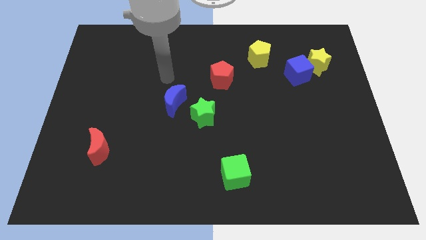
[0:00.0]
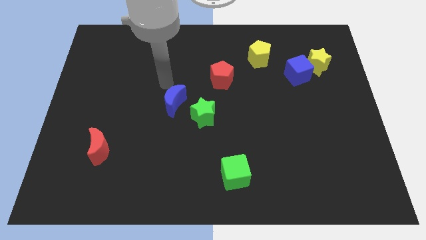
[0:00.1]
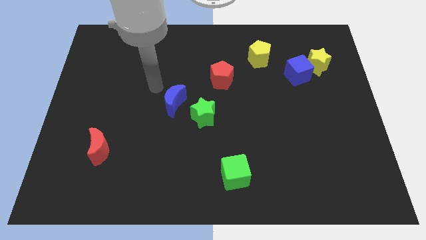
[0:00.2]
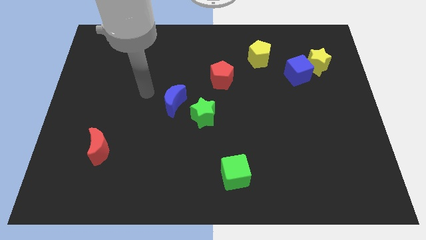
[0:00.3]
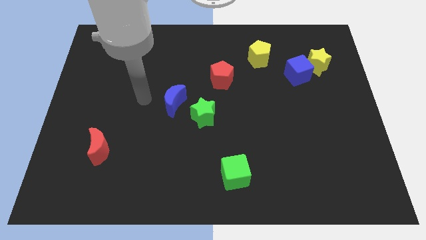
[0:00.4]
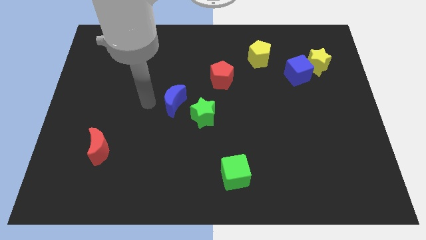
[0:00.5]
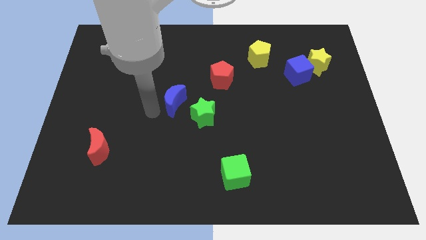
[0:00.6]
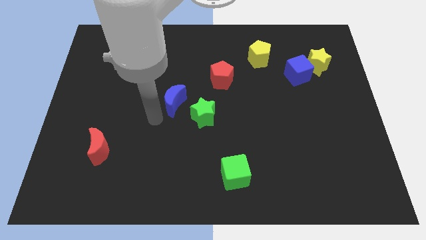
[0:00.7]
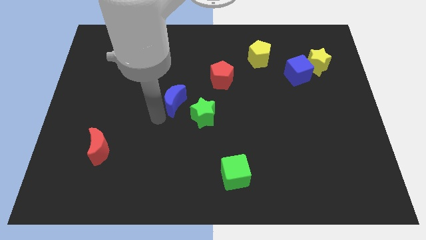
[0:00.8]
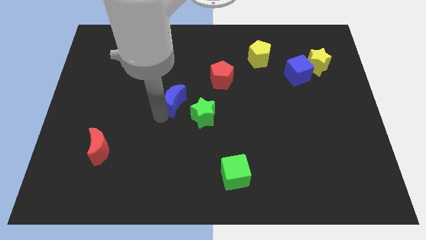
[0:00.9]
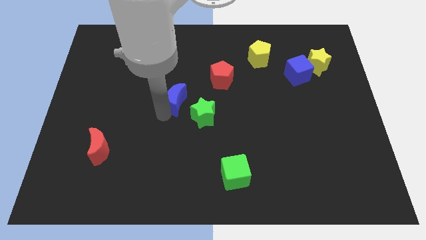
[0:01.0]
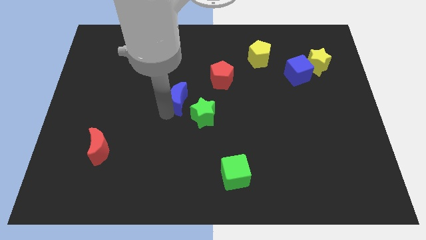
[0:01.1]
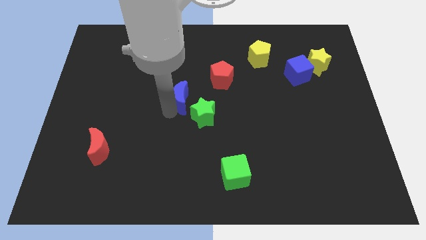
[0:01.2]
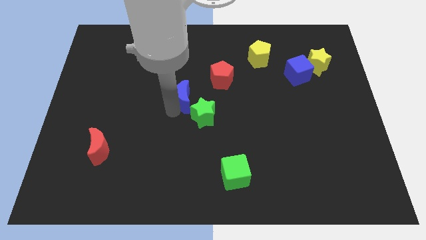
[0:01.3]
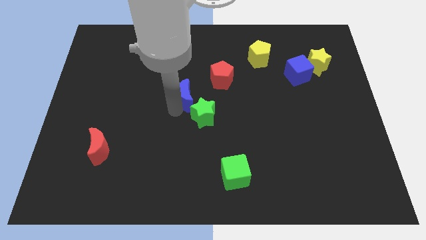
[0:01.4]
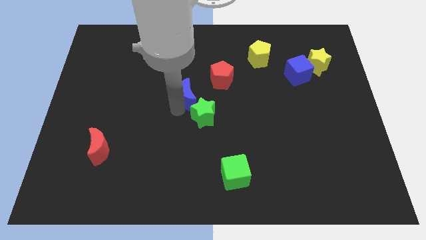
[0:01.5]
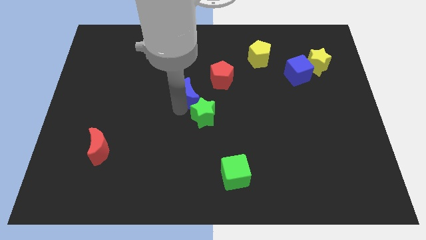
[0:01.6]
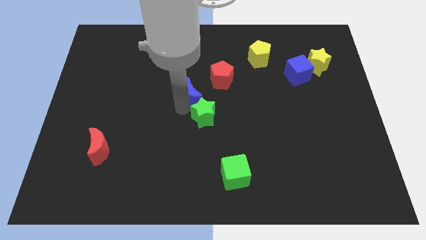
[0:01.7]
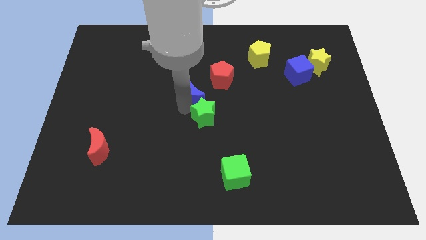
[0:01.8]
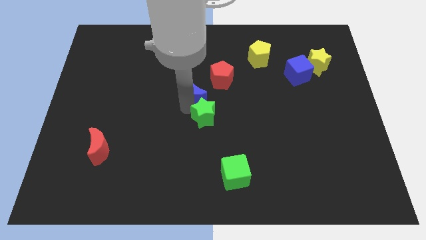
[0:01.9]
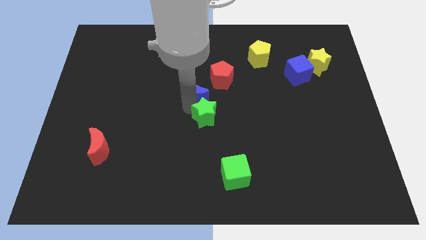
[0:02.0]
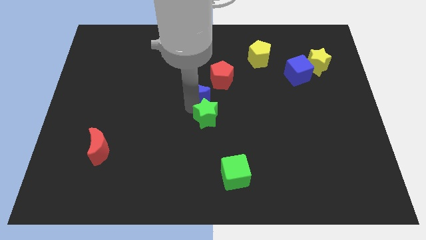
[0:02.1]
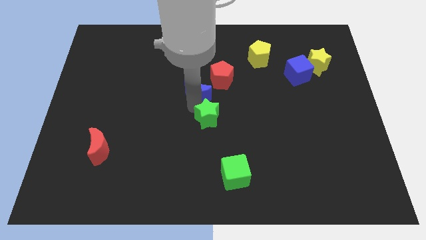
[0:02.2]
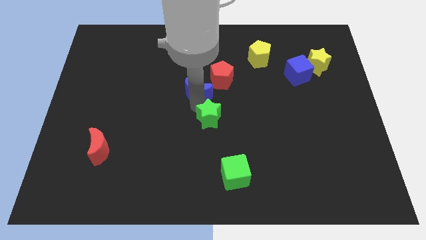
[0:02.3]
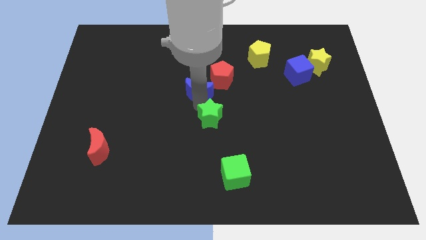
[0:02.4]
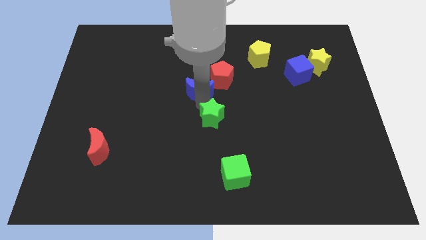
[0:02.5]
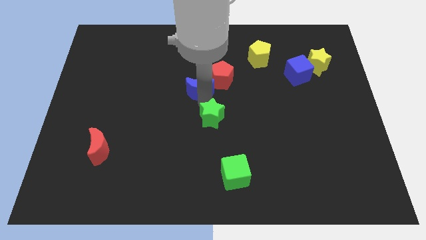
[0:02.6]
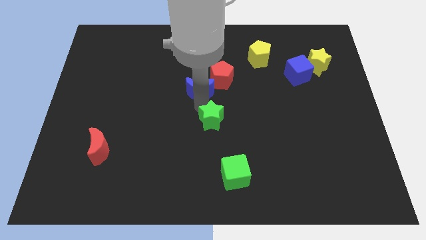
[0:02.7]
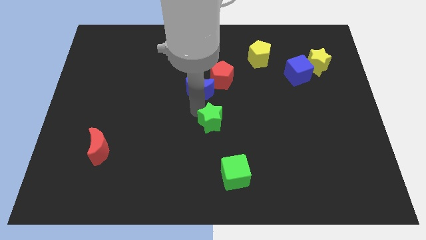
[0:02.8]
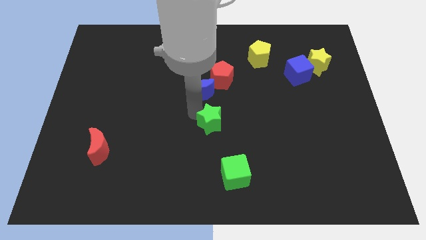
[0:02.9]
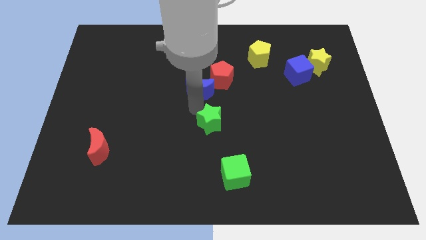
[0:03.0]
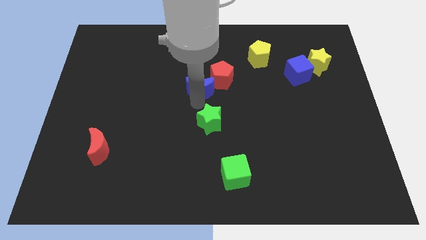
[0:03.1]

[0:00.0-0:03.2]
push the blue moon up and then to the right a little

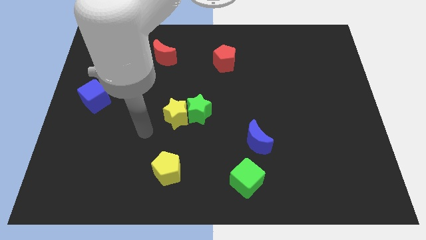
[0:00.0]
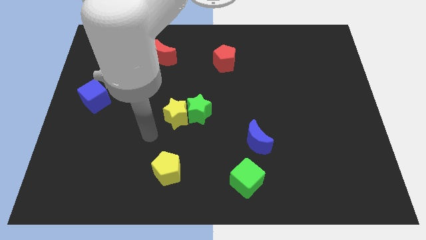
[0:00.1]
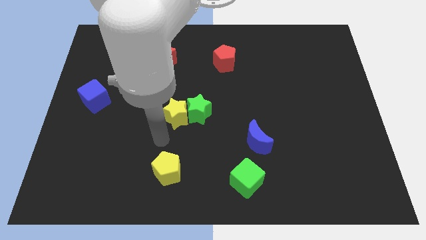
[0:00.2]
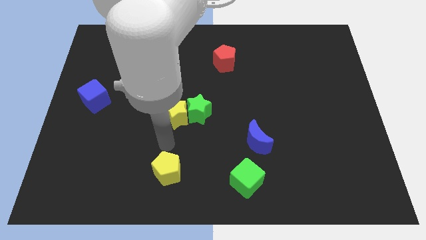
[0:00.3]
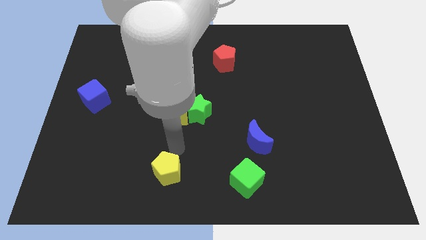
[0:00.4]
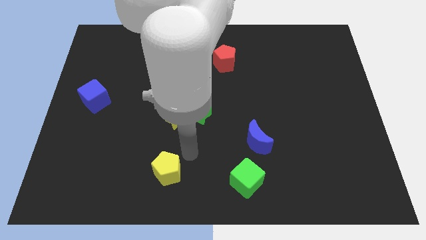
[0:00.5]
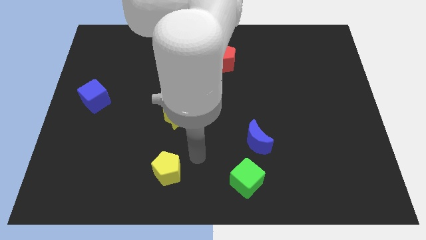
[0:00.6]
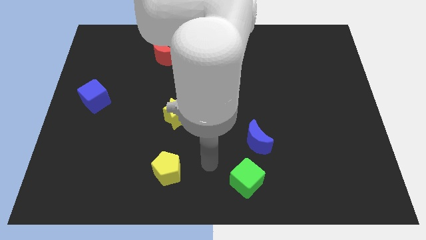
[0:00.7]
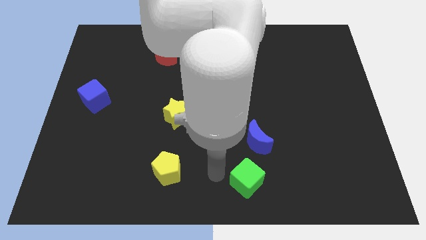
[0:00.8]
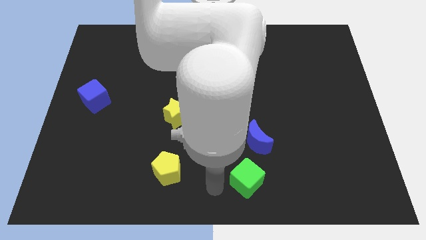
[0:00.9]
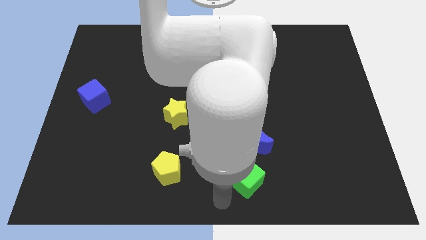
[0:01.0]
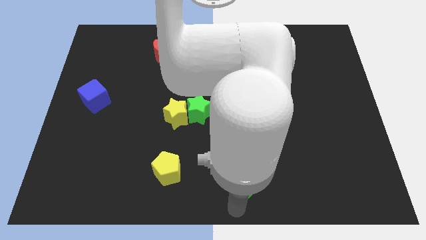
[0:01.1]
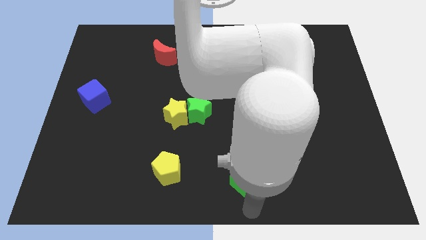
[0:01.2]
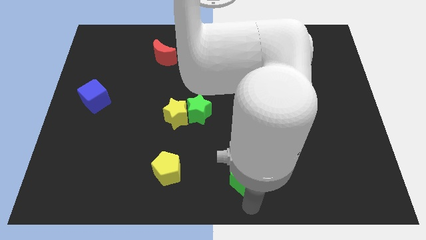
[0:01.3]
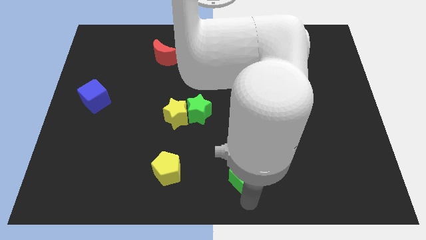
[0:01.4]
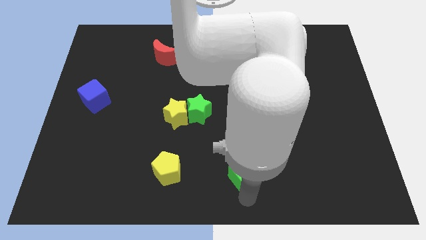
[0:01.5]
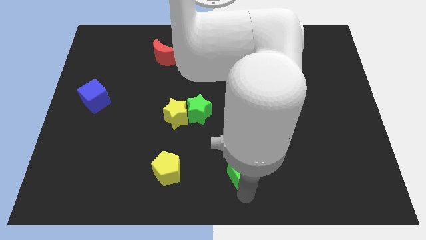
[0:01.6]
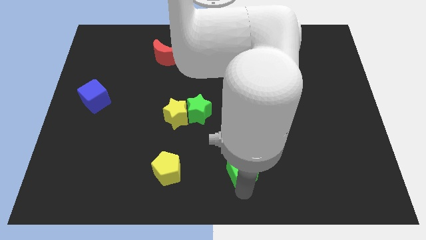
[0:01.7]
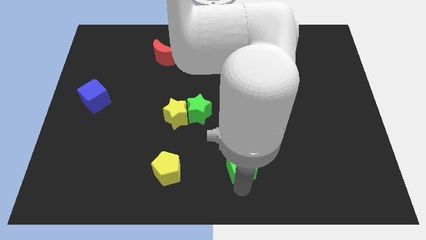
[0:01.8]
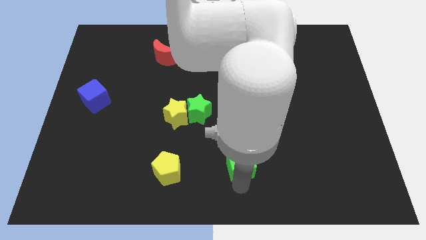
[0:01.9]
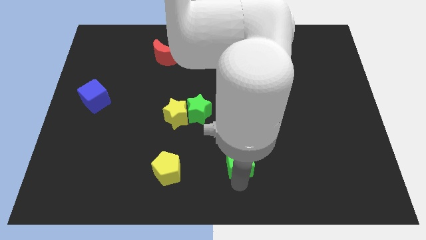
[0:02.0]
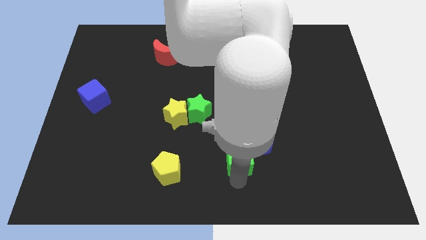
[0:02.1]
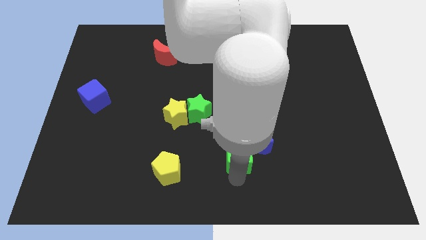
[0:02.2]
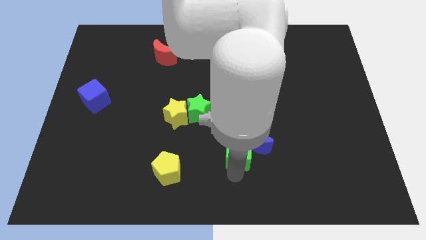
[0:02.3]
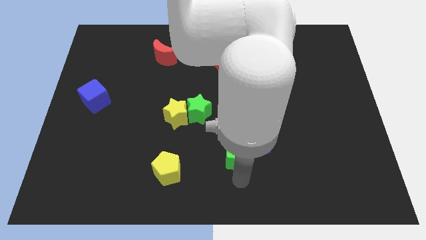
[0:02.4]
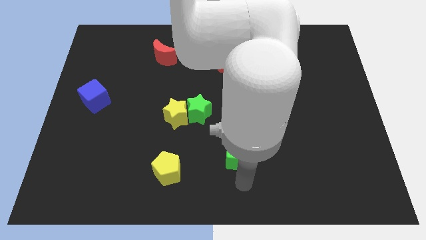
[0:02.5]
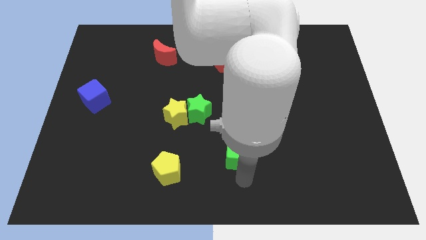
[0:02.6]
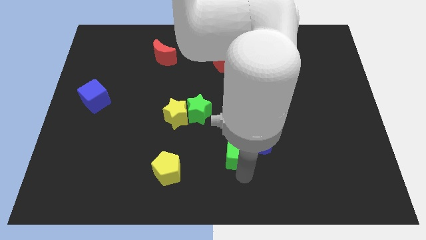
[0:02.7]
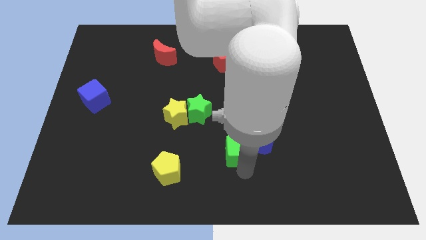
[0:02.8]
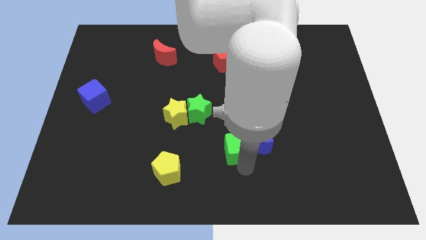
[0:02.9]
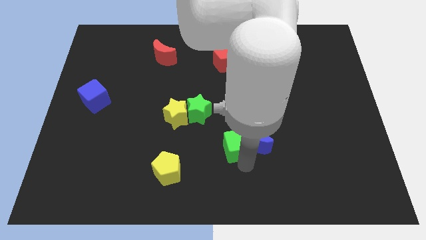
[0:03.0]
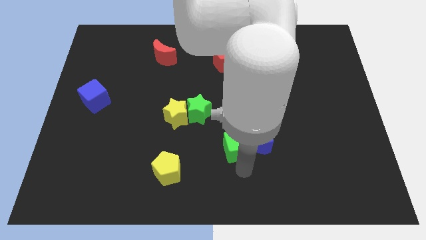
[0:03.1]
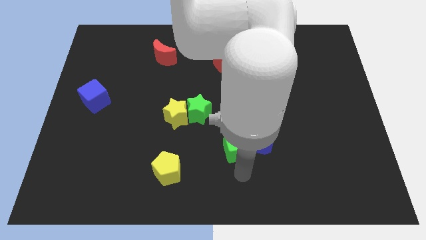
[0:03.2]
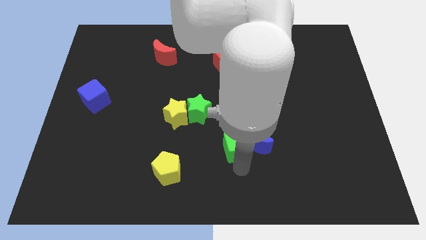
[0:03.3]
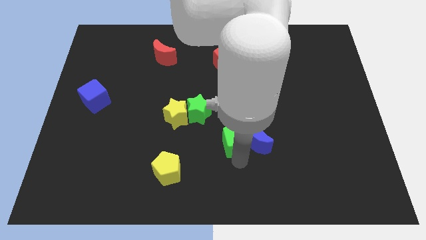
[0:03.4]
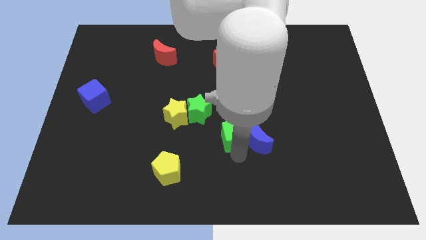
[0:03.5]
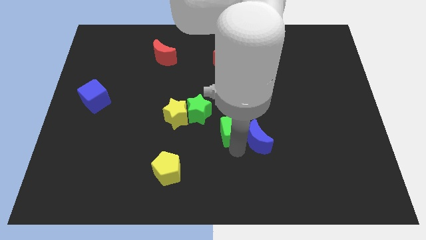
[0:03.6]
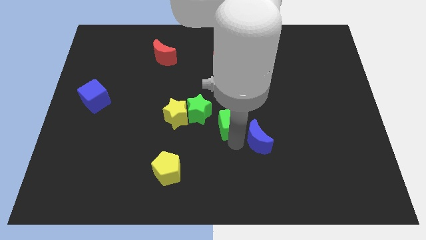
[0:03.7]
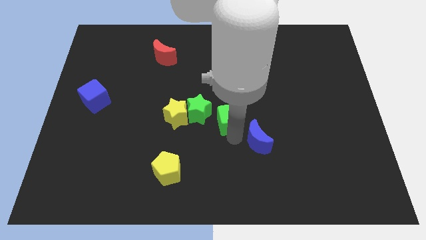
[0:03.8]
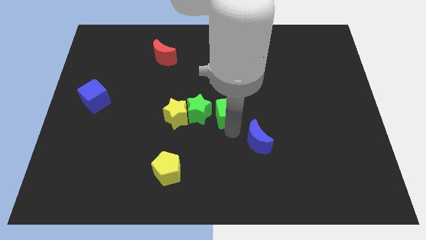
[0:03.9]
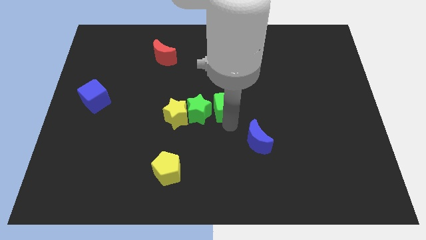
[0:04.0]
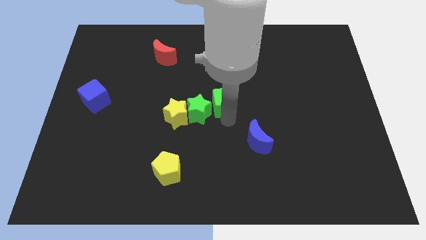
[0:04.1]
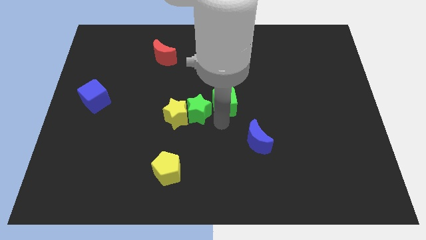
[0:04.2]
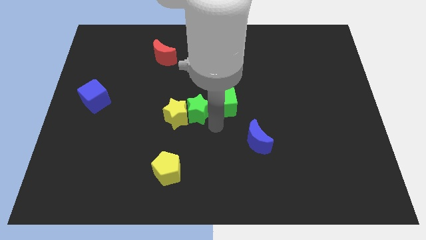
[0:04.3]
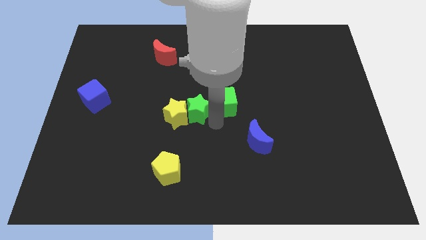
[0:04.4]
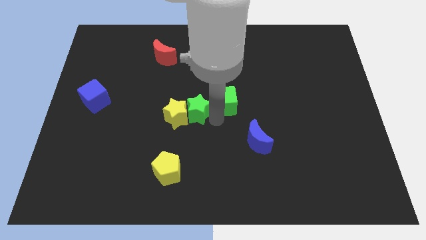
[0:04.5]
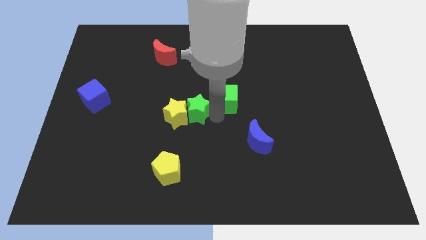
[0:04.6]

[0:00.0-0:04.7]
move the green cube upwards
